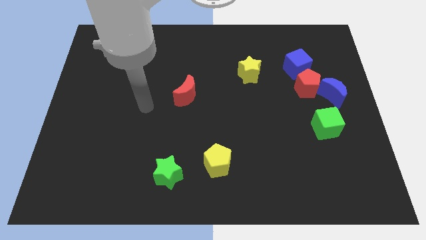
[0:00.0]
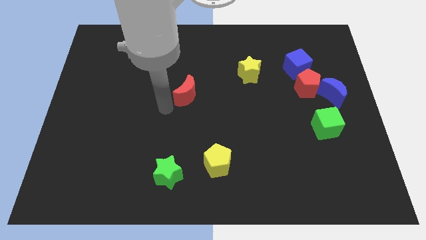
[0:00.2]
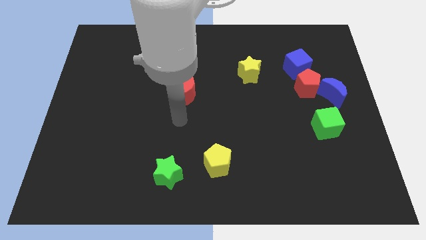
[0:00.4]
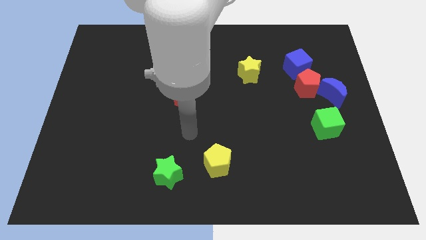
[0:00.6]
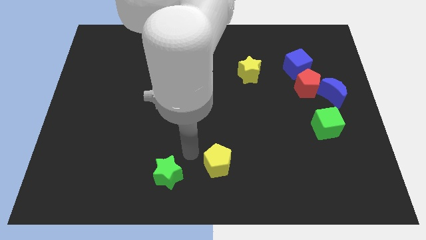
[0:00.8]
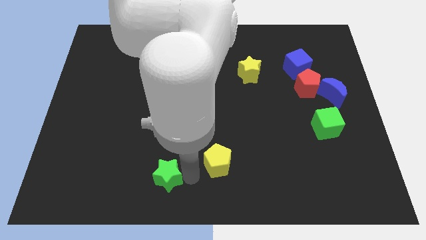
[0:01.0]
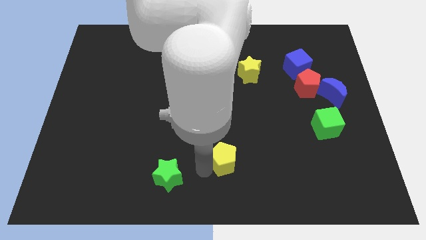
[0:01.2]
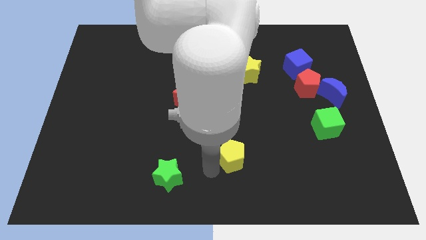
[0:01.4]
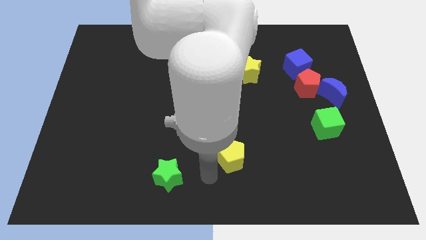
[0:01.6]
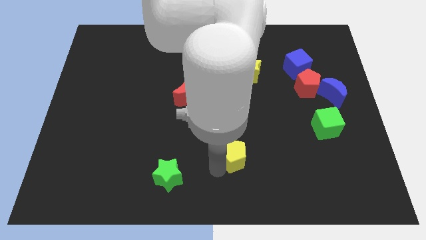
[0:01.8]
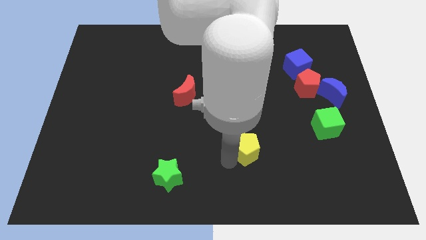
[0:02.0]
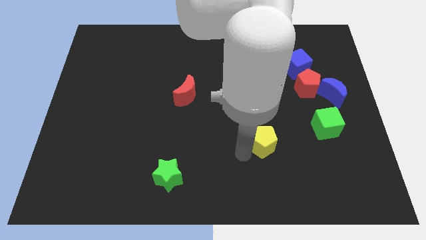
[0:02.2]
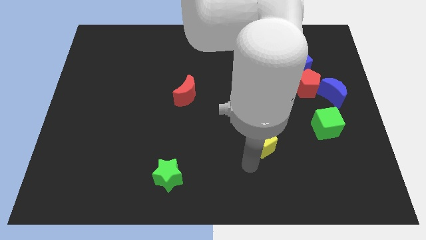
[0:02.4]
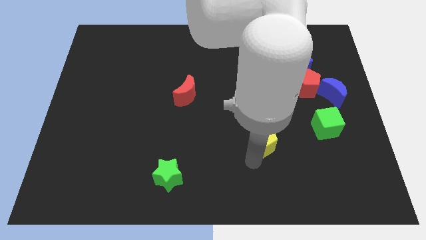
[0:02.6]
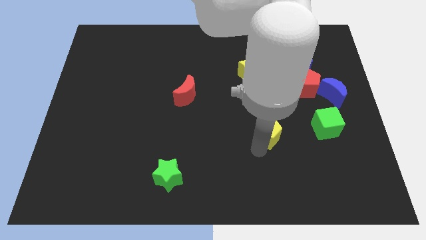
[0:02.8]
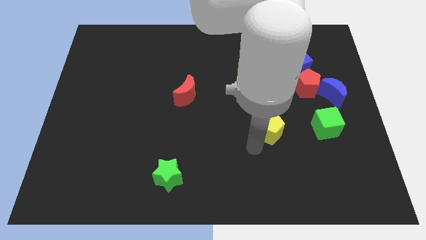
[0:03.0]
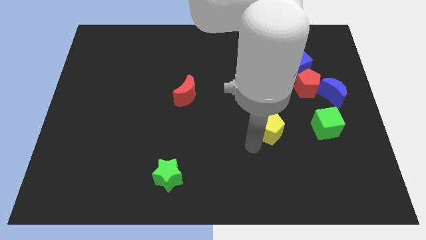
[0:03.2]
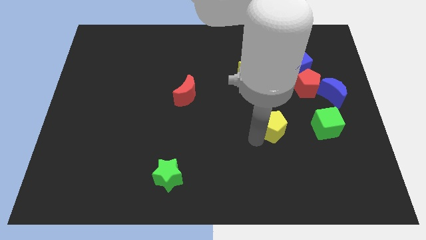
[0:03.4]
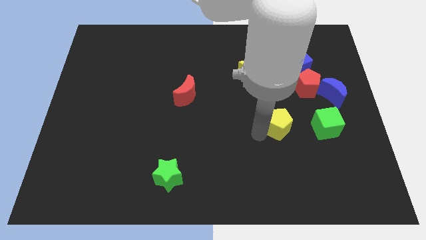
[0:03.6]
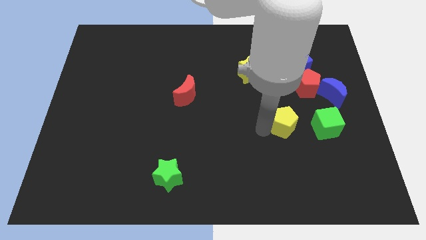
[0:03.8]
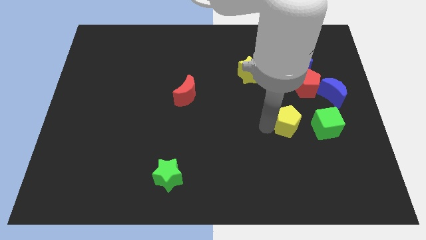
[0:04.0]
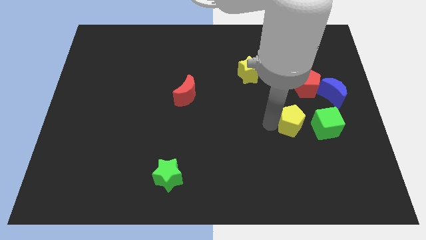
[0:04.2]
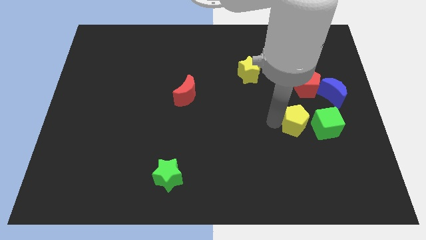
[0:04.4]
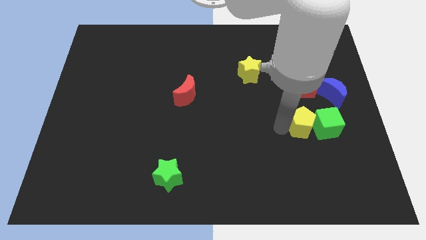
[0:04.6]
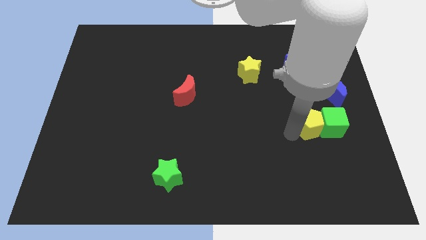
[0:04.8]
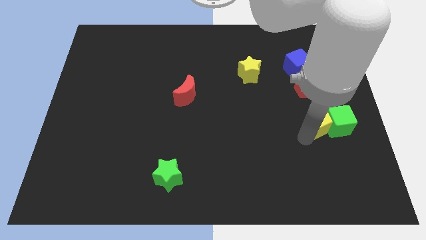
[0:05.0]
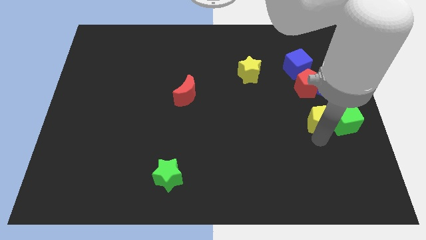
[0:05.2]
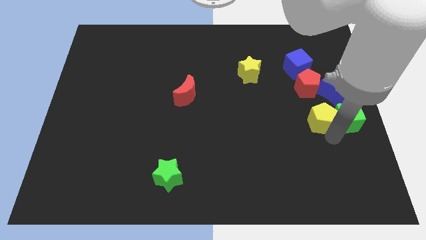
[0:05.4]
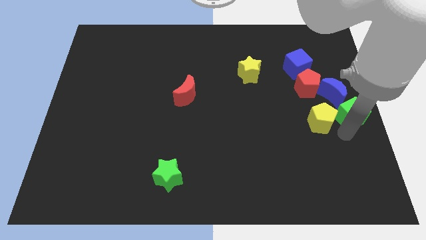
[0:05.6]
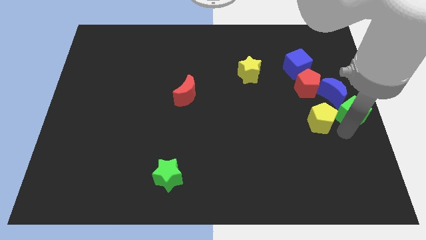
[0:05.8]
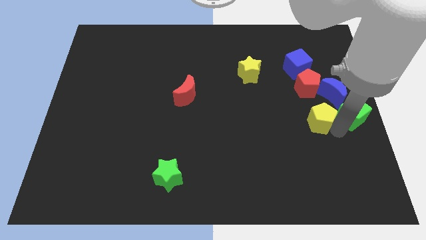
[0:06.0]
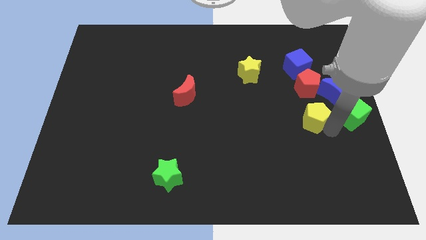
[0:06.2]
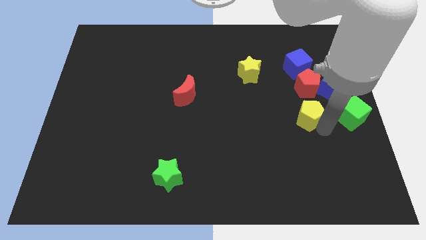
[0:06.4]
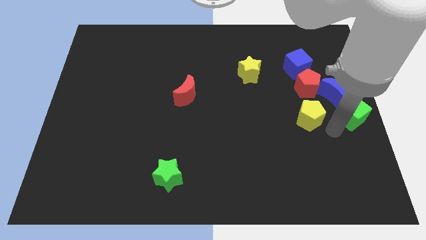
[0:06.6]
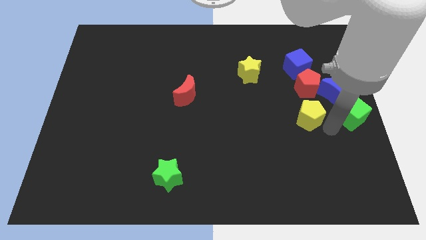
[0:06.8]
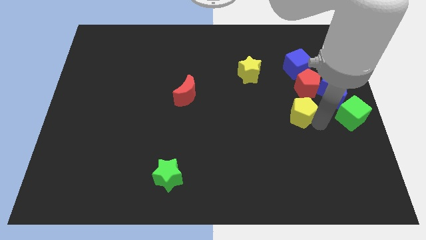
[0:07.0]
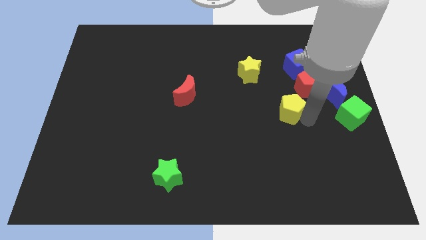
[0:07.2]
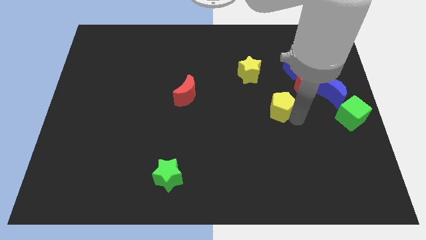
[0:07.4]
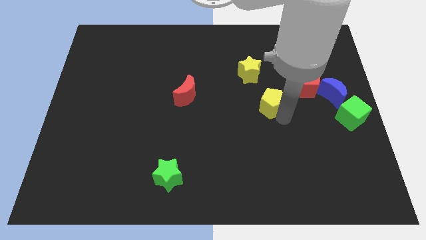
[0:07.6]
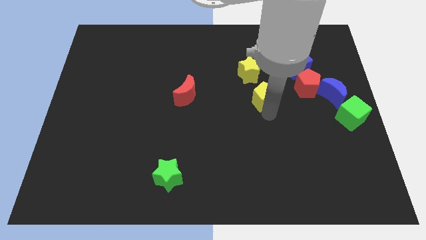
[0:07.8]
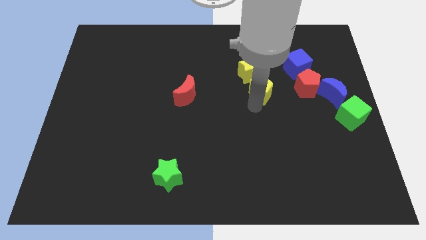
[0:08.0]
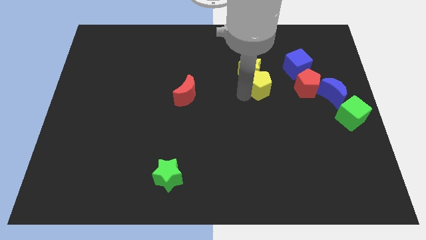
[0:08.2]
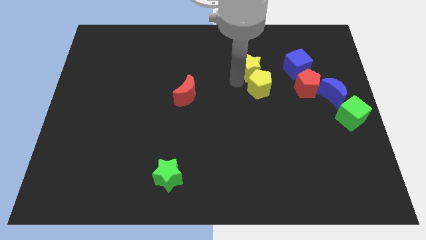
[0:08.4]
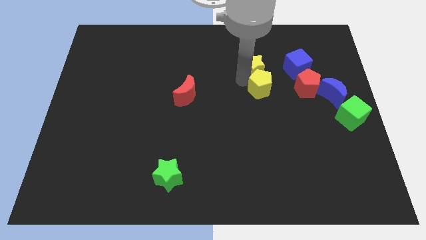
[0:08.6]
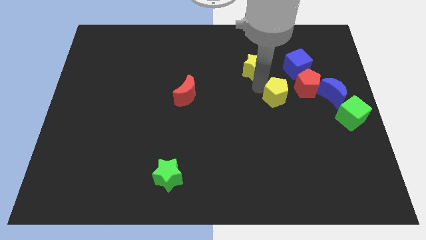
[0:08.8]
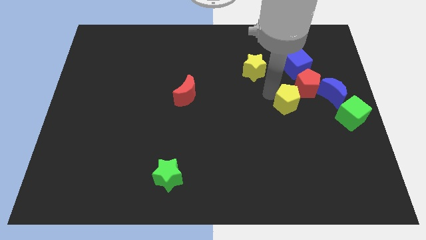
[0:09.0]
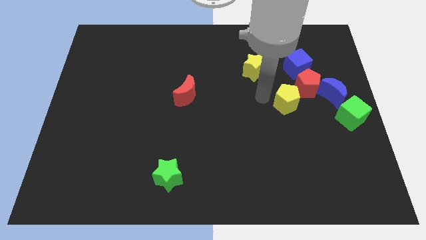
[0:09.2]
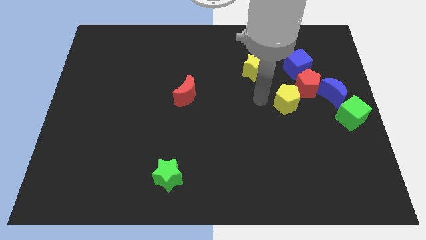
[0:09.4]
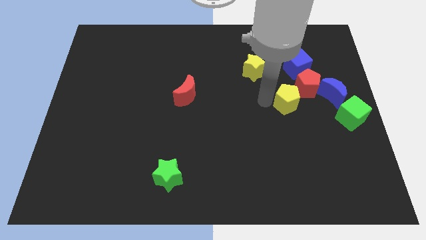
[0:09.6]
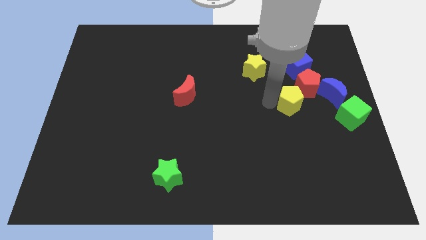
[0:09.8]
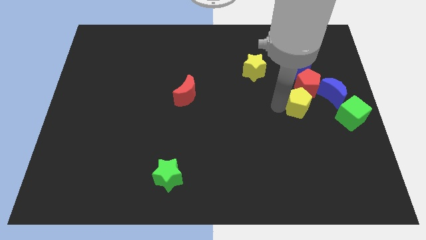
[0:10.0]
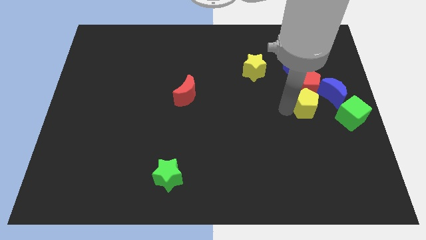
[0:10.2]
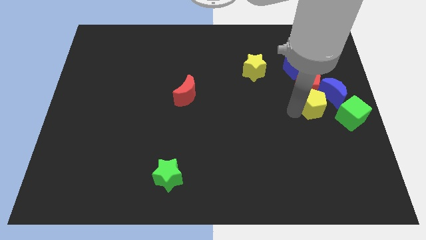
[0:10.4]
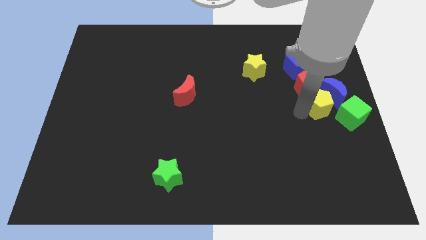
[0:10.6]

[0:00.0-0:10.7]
put the yellow pentagon towards the blue moon
